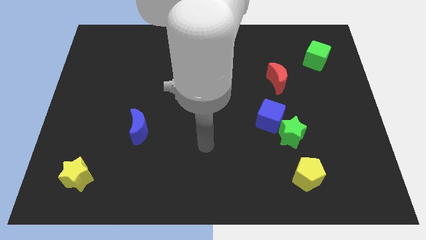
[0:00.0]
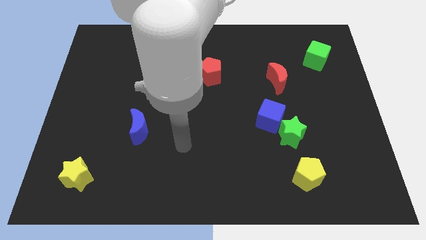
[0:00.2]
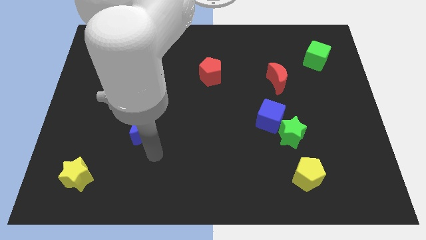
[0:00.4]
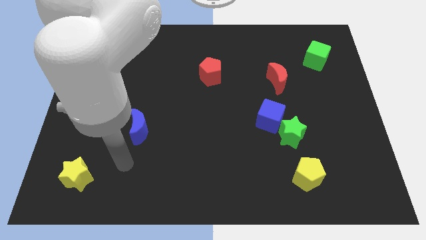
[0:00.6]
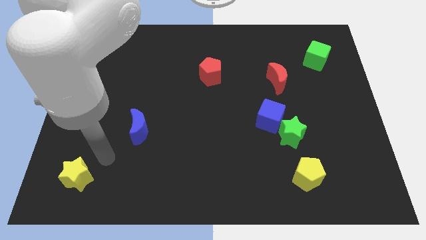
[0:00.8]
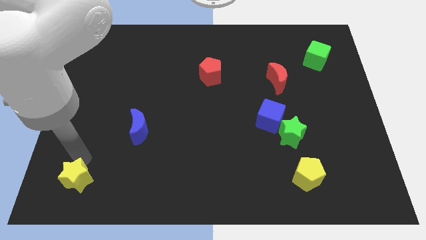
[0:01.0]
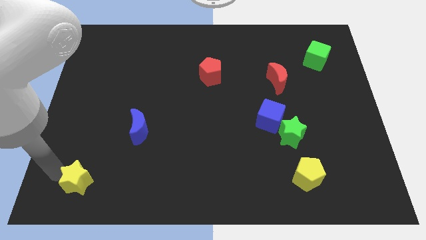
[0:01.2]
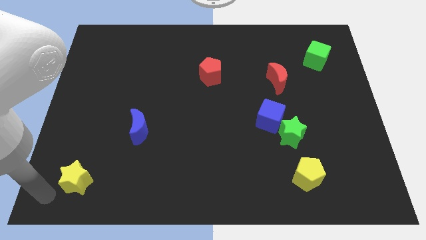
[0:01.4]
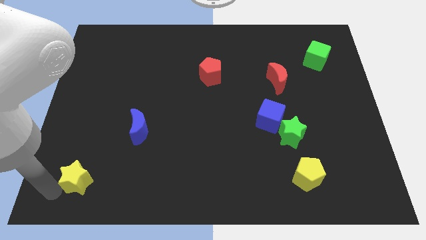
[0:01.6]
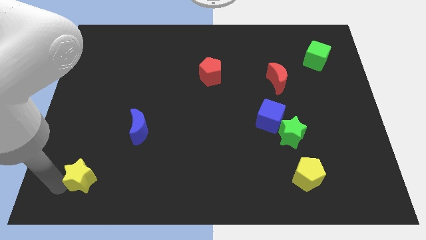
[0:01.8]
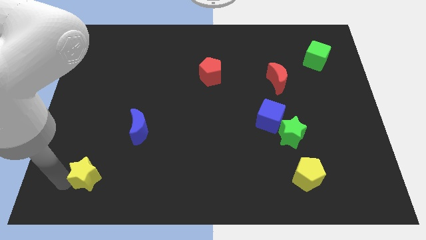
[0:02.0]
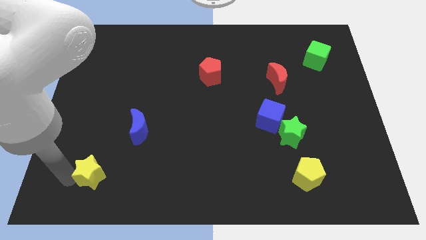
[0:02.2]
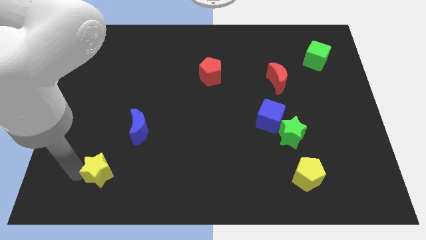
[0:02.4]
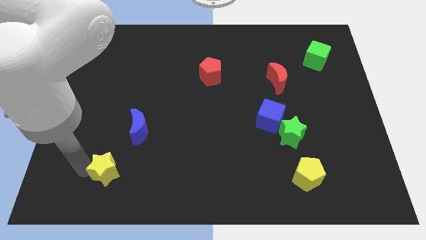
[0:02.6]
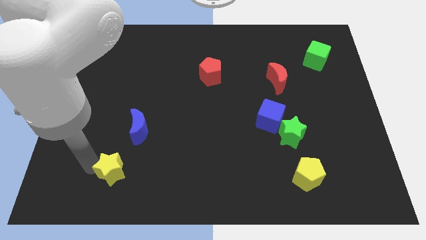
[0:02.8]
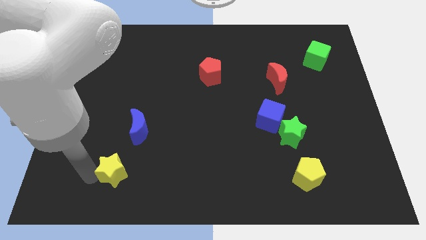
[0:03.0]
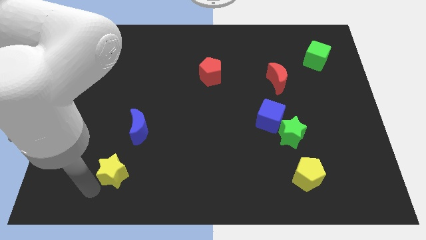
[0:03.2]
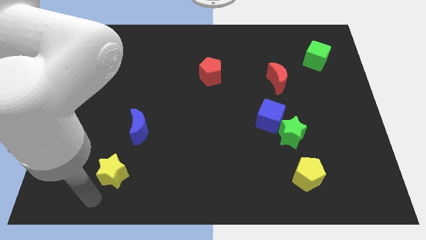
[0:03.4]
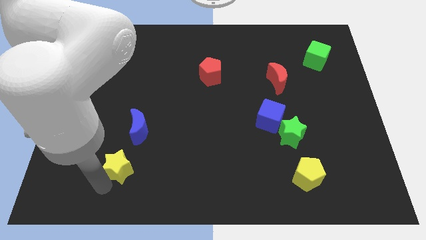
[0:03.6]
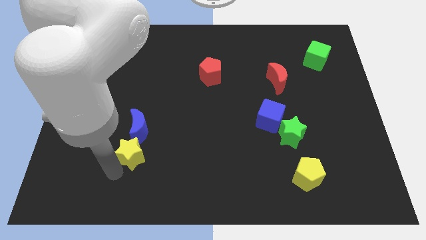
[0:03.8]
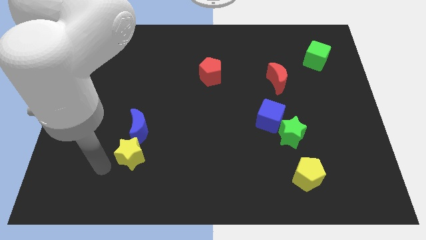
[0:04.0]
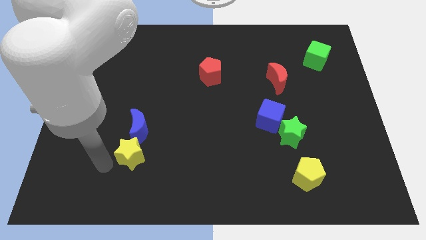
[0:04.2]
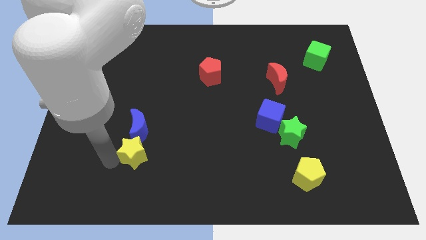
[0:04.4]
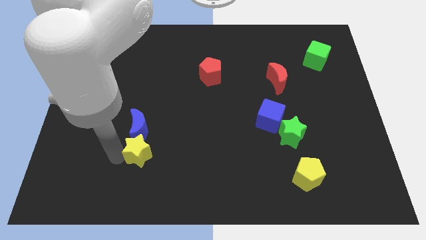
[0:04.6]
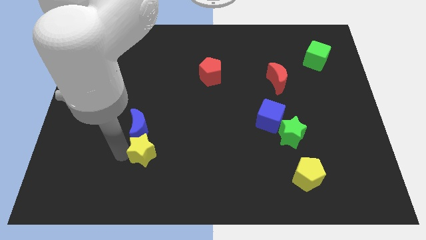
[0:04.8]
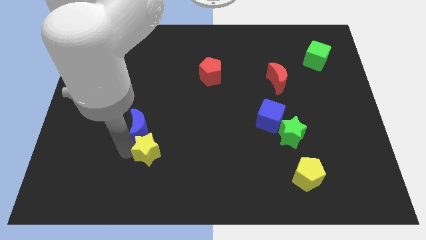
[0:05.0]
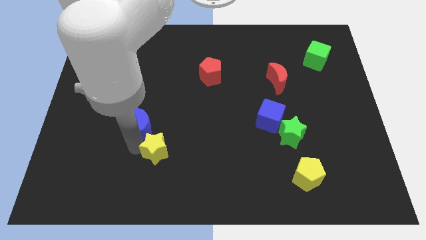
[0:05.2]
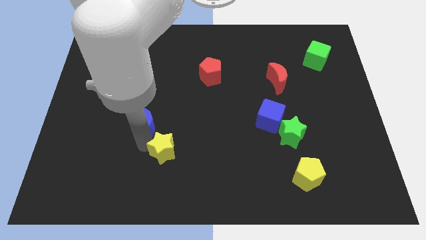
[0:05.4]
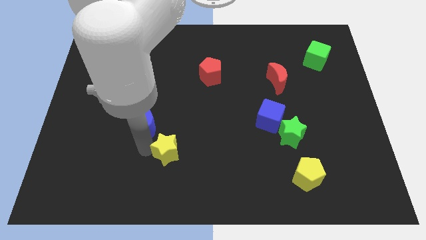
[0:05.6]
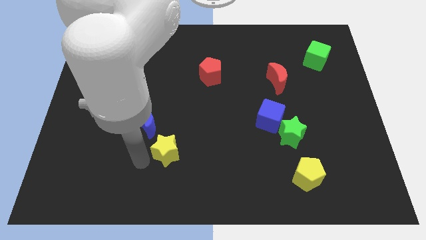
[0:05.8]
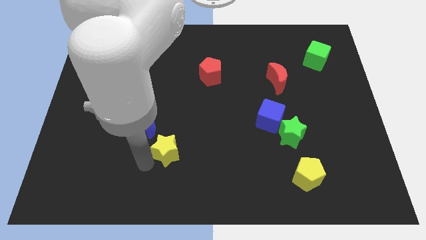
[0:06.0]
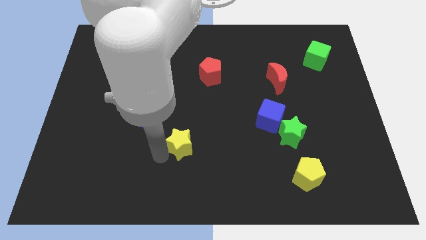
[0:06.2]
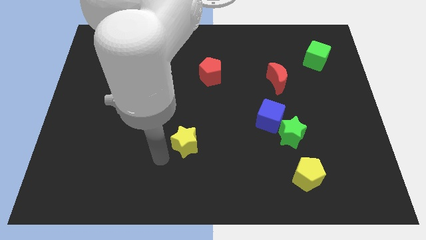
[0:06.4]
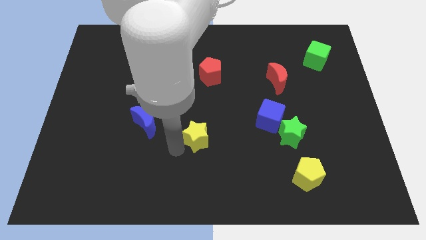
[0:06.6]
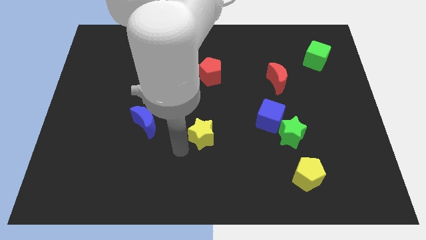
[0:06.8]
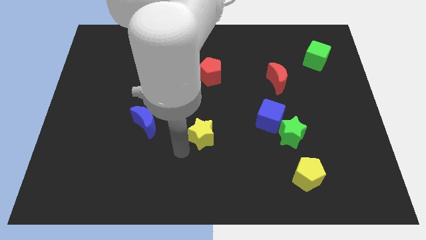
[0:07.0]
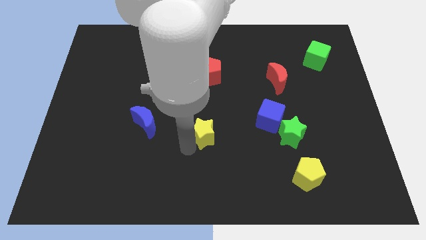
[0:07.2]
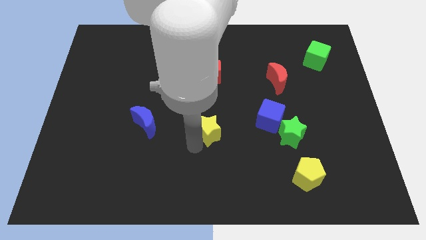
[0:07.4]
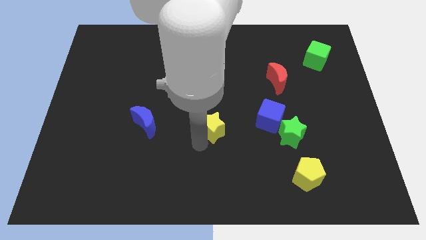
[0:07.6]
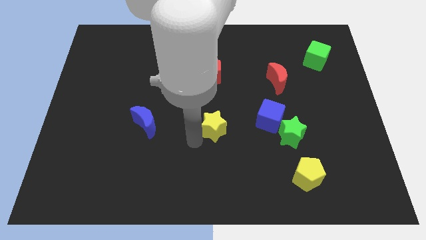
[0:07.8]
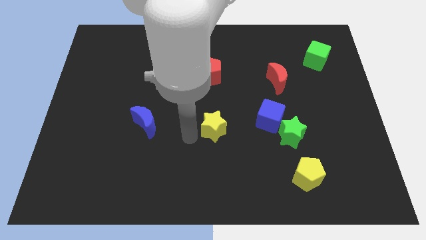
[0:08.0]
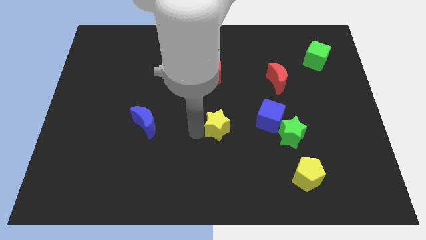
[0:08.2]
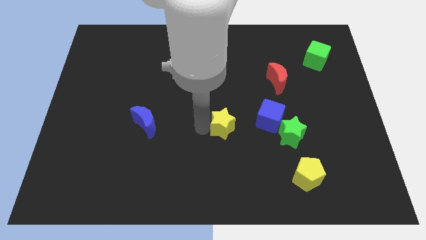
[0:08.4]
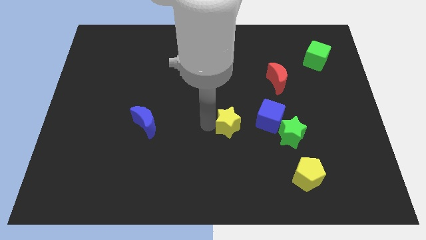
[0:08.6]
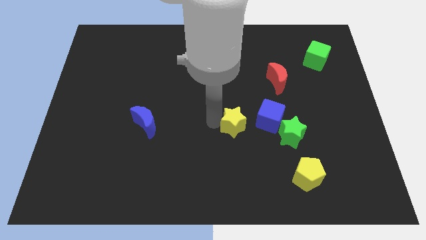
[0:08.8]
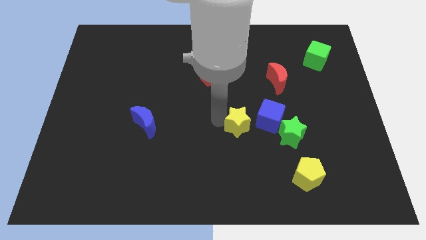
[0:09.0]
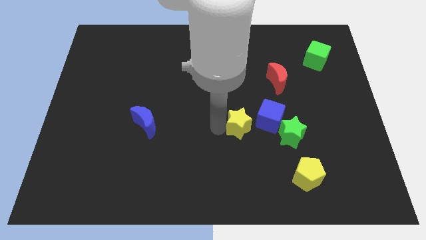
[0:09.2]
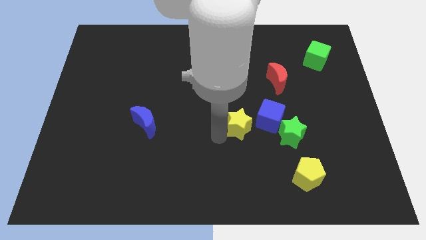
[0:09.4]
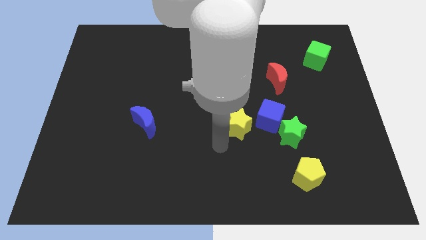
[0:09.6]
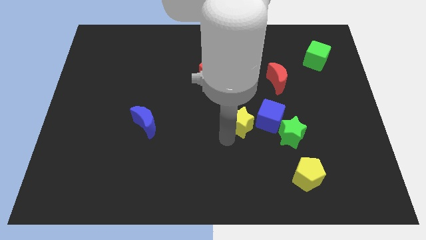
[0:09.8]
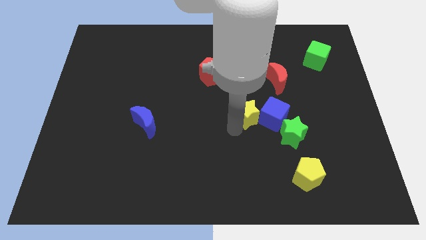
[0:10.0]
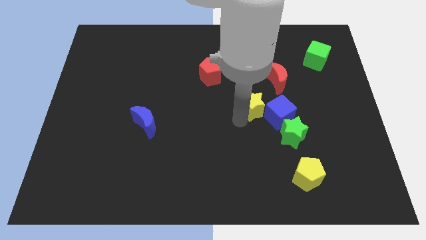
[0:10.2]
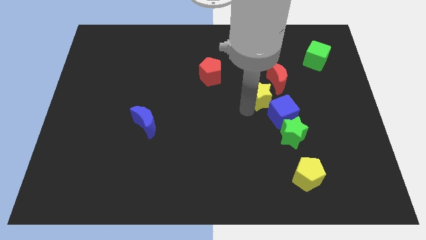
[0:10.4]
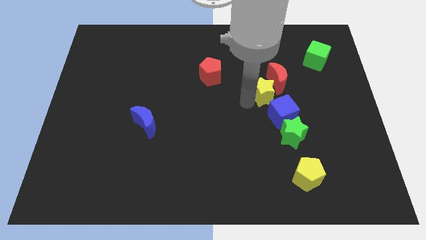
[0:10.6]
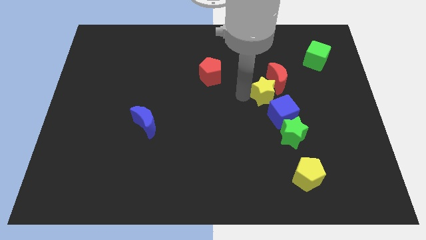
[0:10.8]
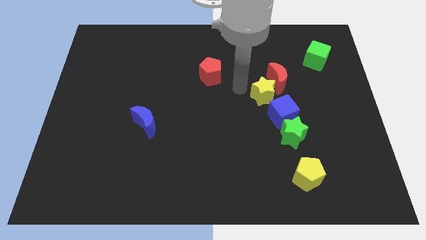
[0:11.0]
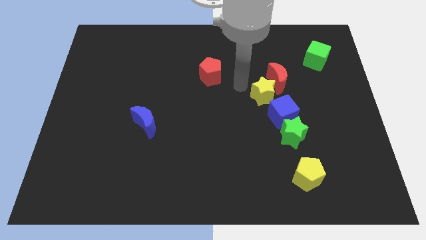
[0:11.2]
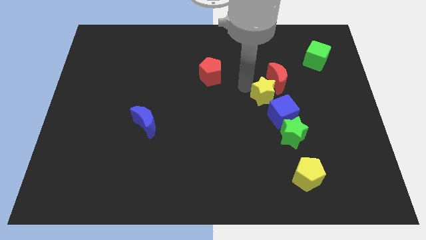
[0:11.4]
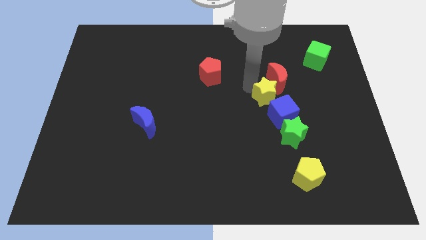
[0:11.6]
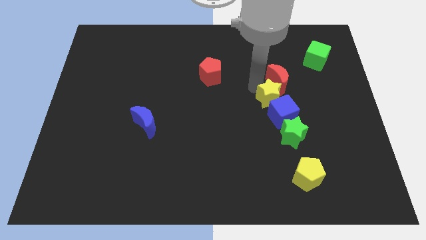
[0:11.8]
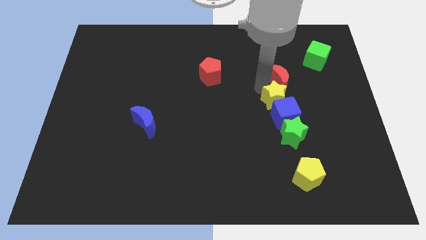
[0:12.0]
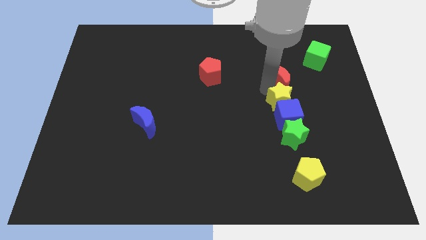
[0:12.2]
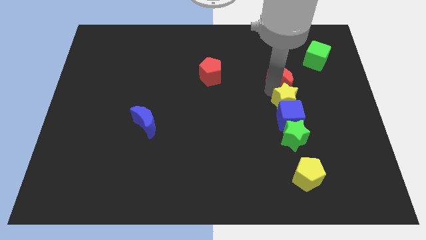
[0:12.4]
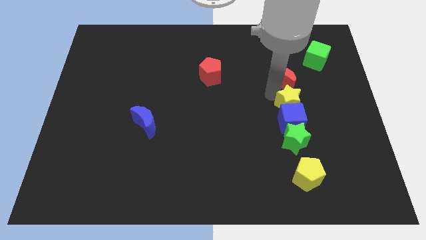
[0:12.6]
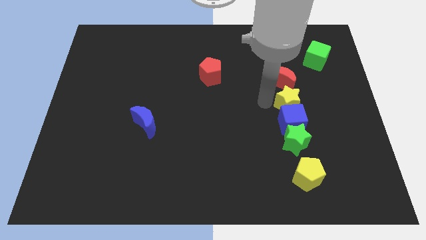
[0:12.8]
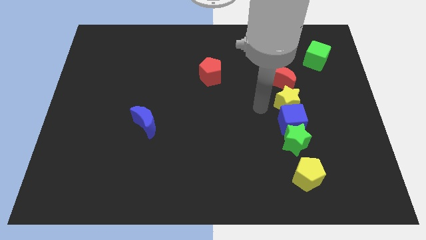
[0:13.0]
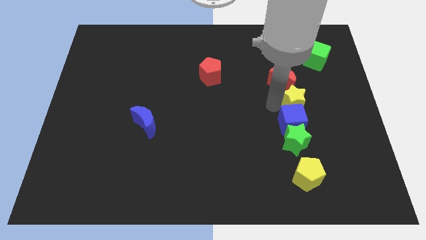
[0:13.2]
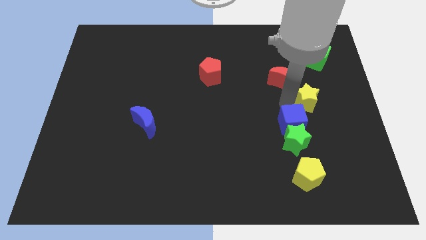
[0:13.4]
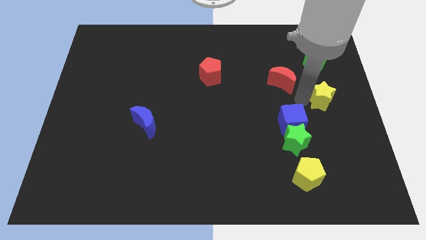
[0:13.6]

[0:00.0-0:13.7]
slide the yellow star to the right side
